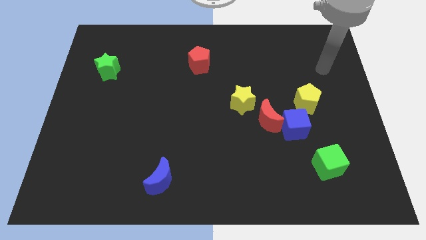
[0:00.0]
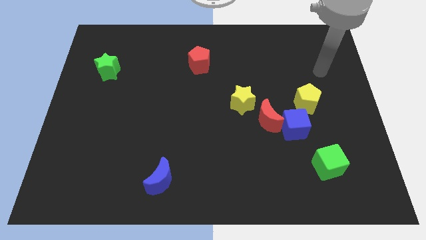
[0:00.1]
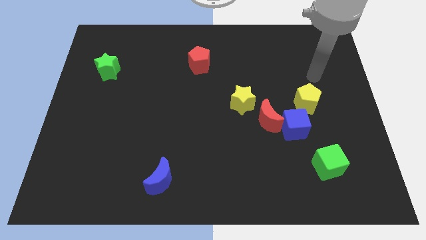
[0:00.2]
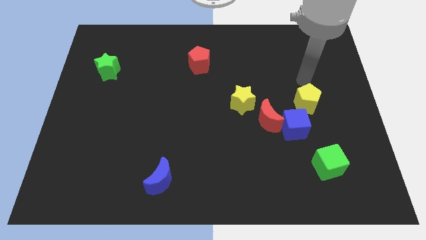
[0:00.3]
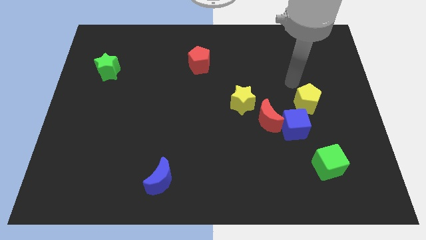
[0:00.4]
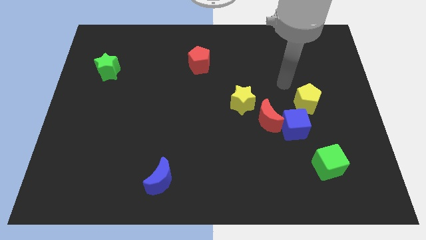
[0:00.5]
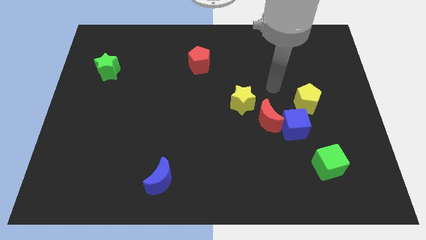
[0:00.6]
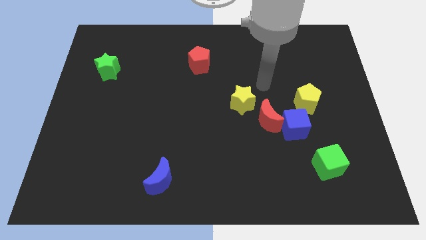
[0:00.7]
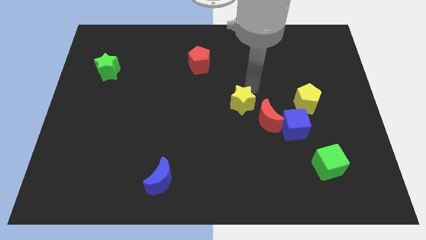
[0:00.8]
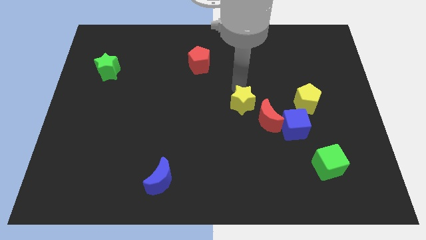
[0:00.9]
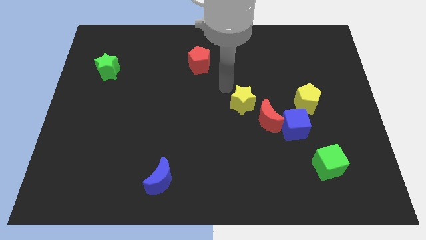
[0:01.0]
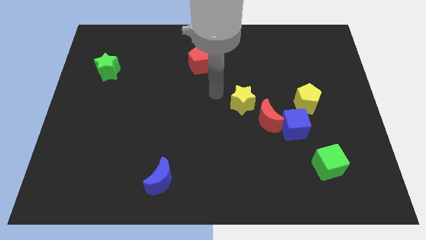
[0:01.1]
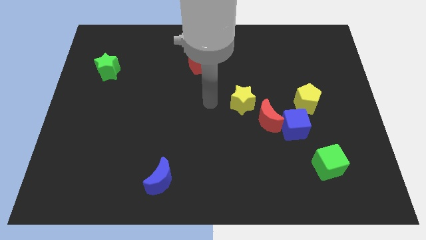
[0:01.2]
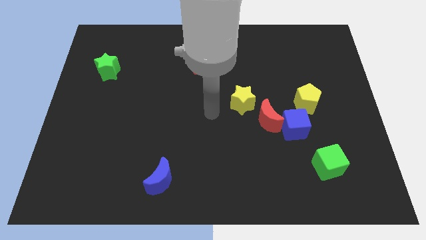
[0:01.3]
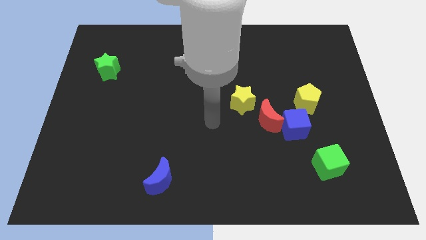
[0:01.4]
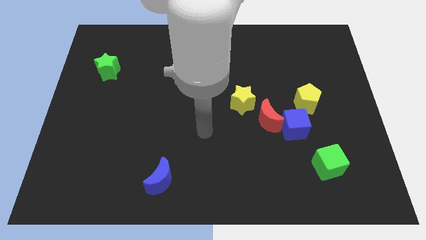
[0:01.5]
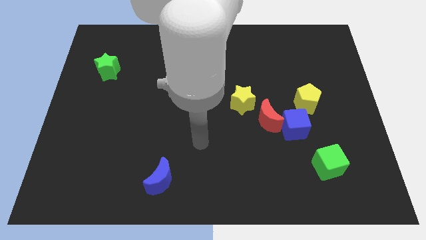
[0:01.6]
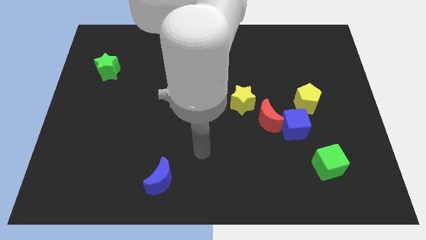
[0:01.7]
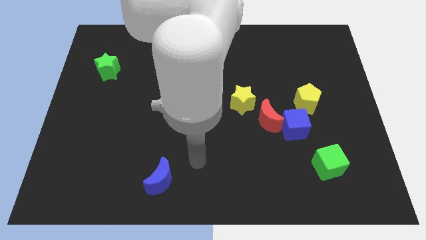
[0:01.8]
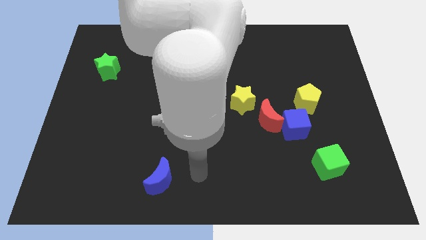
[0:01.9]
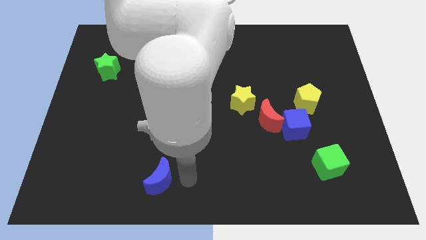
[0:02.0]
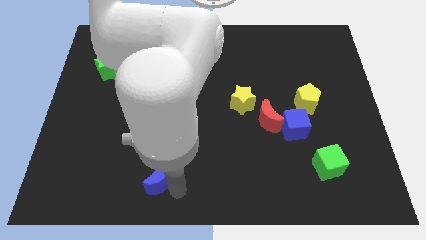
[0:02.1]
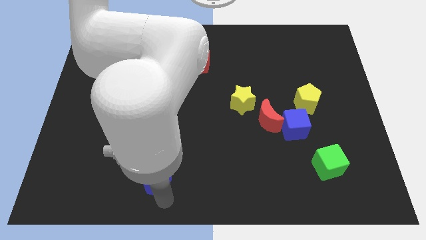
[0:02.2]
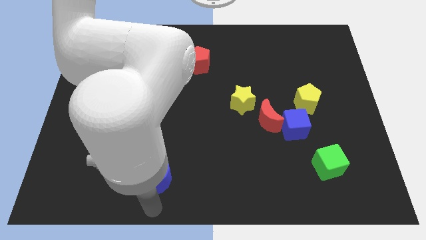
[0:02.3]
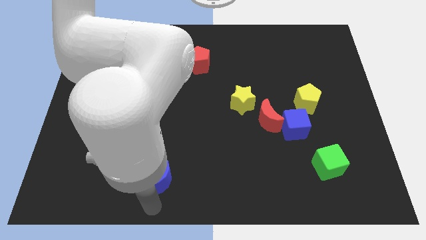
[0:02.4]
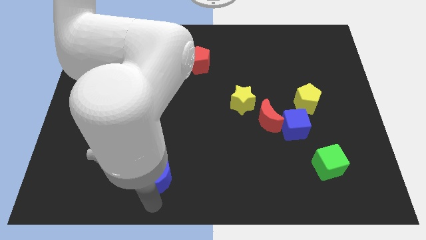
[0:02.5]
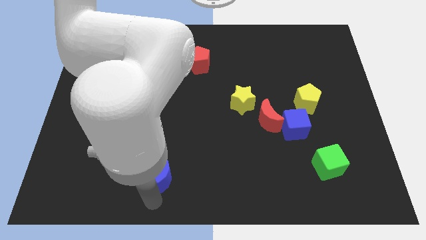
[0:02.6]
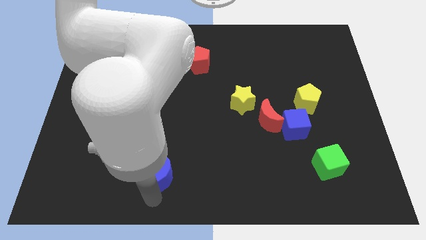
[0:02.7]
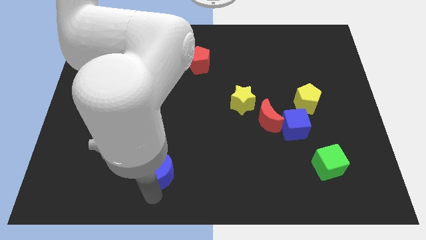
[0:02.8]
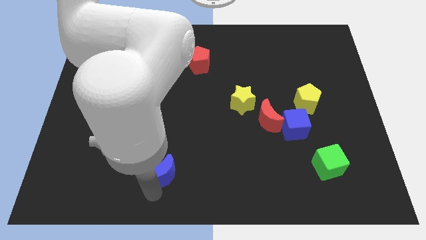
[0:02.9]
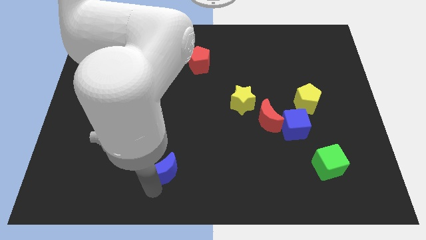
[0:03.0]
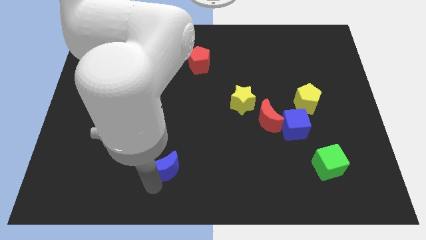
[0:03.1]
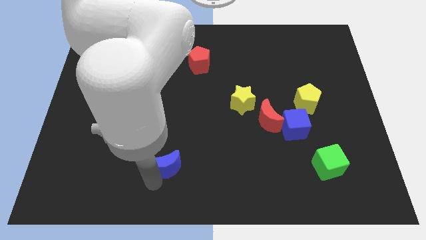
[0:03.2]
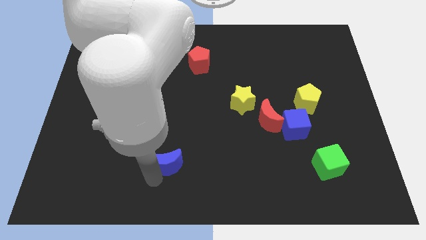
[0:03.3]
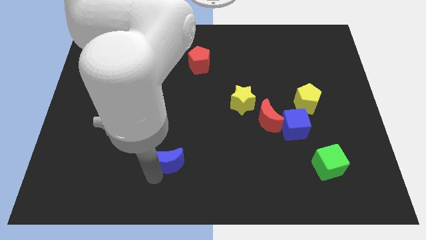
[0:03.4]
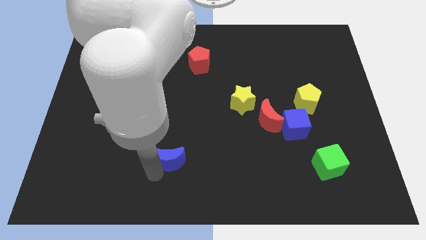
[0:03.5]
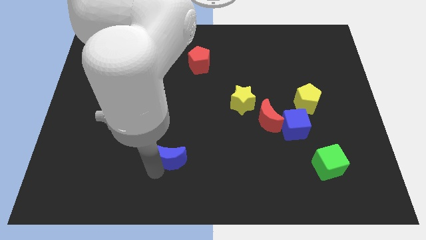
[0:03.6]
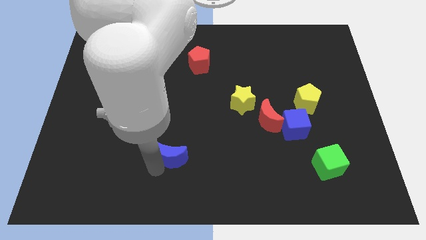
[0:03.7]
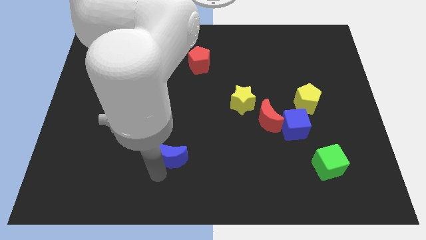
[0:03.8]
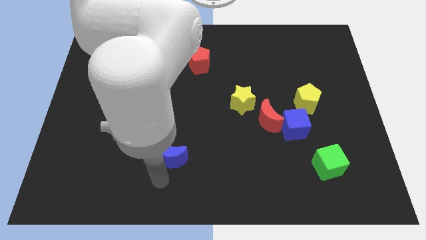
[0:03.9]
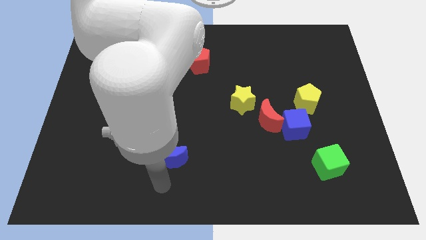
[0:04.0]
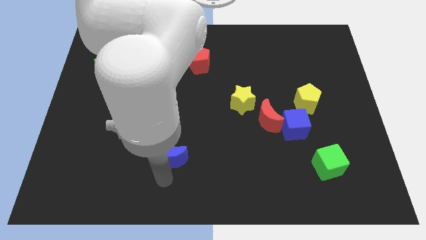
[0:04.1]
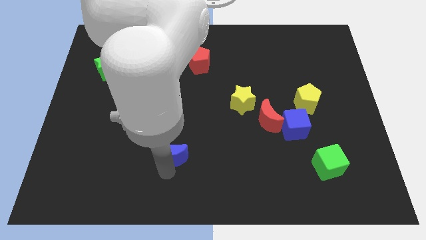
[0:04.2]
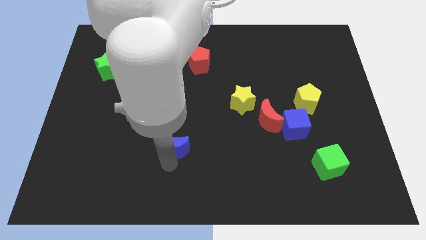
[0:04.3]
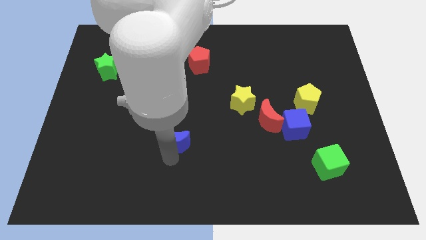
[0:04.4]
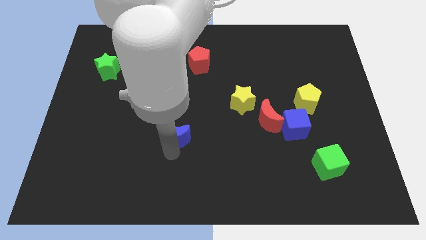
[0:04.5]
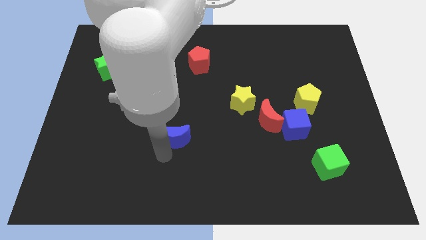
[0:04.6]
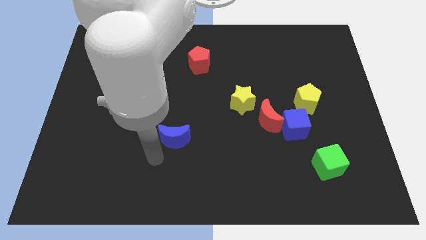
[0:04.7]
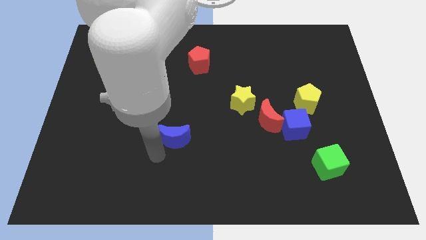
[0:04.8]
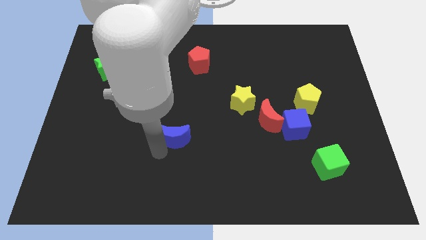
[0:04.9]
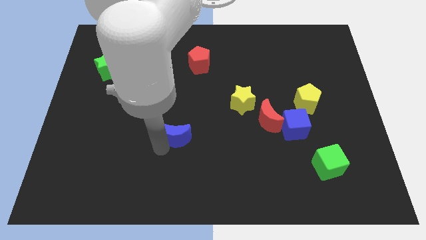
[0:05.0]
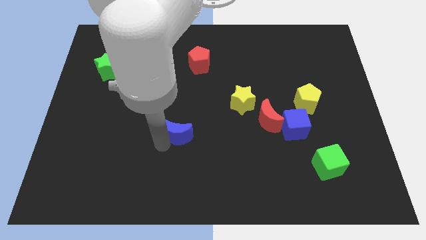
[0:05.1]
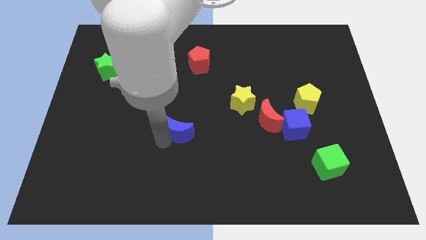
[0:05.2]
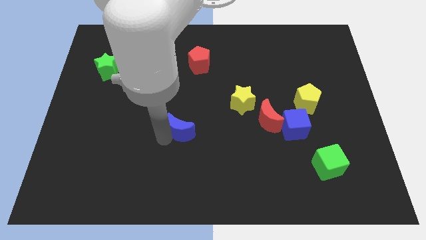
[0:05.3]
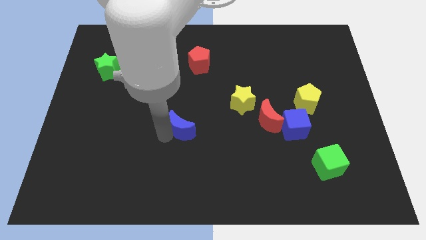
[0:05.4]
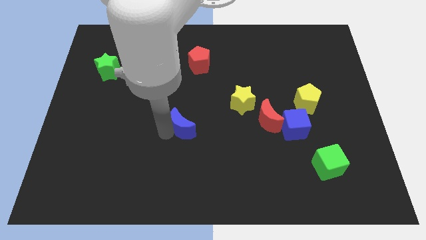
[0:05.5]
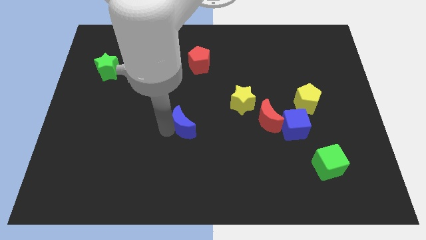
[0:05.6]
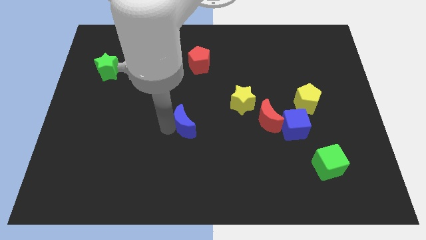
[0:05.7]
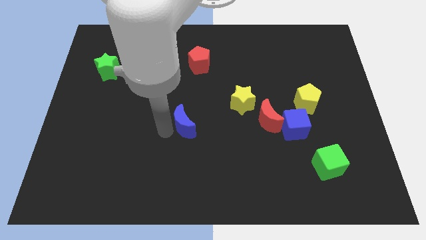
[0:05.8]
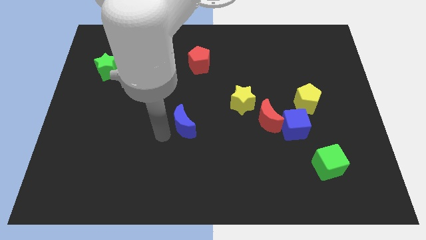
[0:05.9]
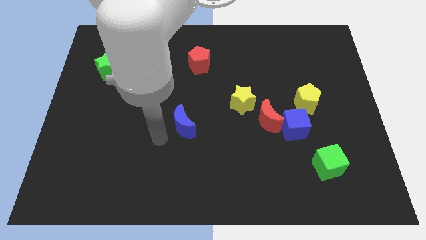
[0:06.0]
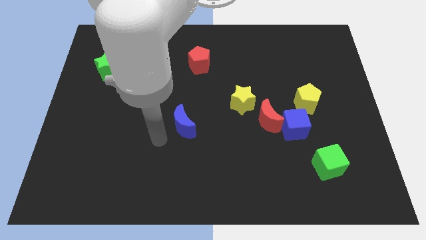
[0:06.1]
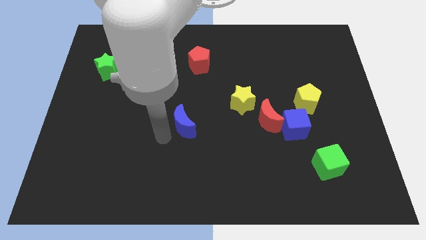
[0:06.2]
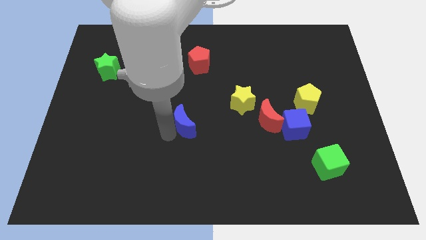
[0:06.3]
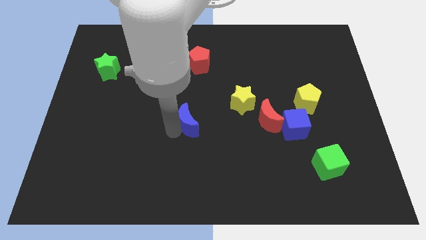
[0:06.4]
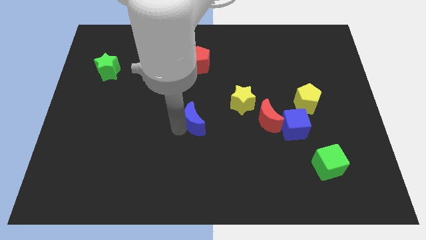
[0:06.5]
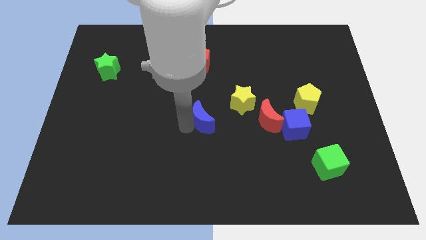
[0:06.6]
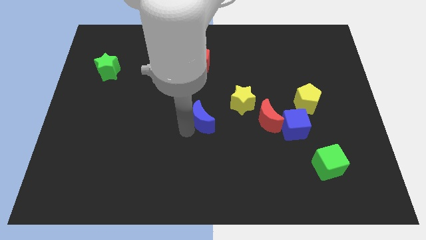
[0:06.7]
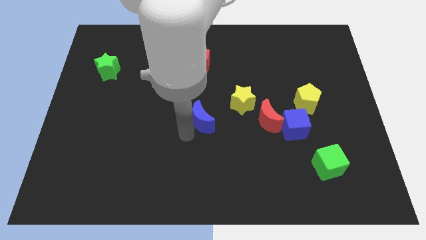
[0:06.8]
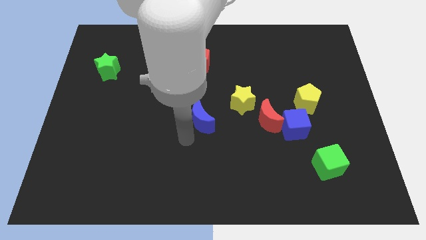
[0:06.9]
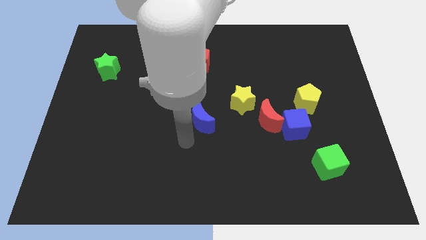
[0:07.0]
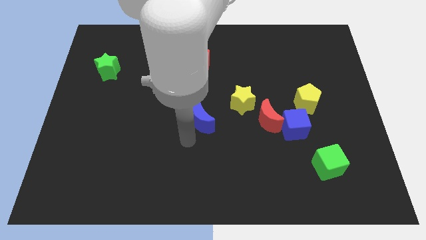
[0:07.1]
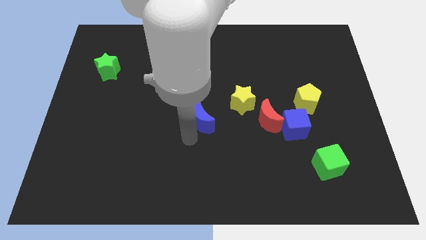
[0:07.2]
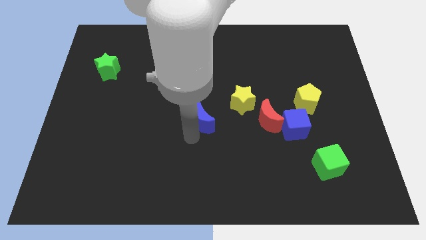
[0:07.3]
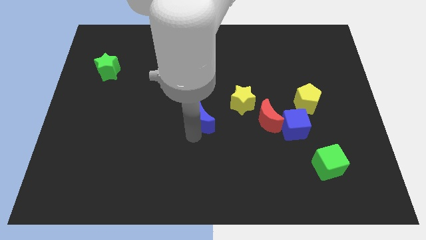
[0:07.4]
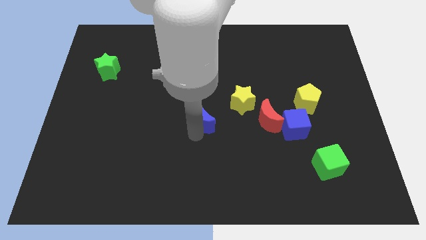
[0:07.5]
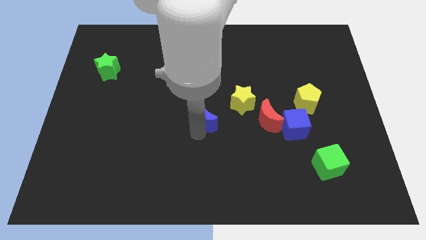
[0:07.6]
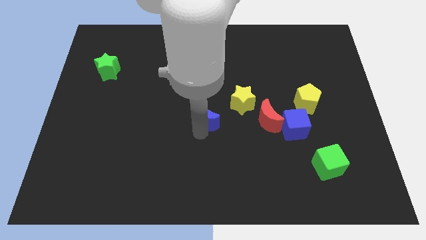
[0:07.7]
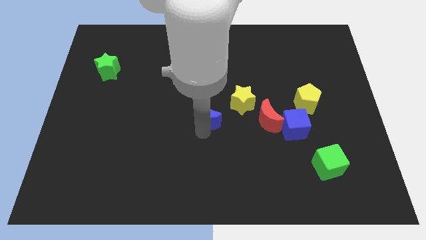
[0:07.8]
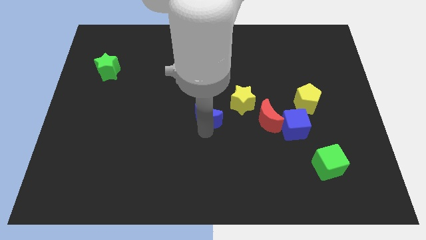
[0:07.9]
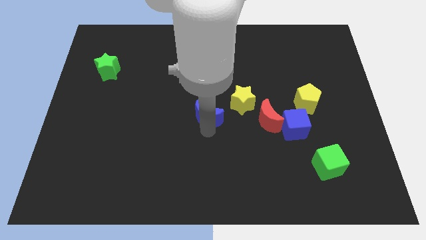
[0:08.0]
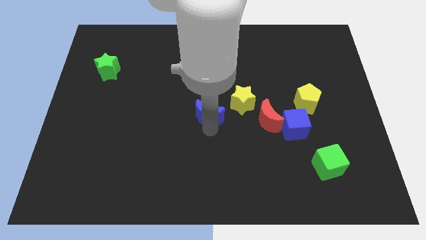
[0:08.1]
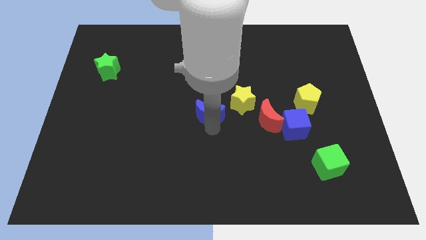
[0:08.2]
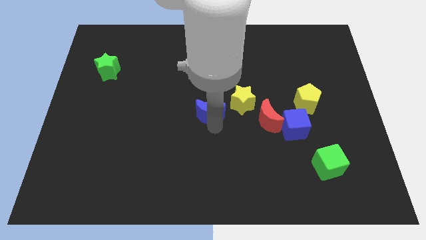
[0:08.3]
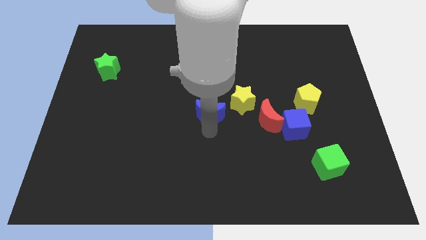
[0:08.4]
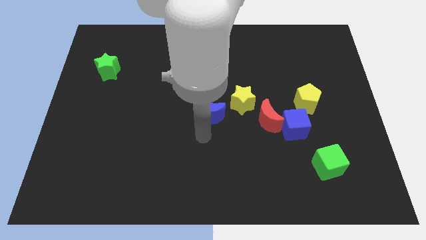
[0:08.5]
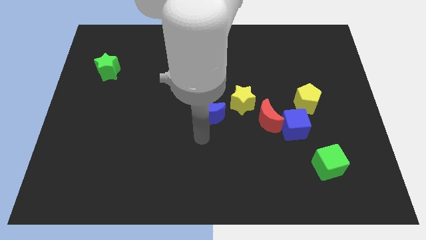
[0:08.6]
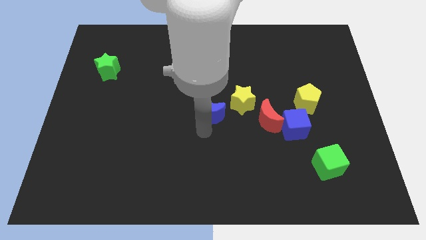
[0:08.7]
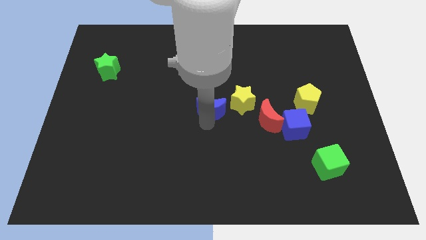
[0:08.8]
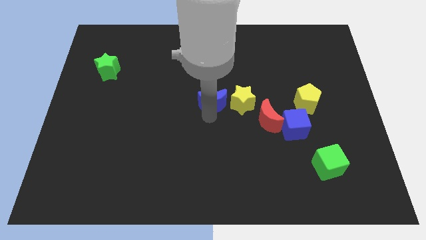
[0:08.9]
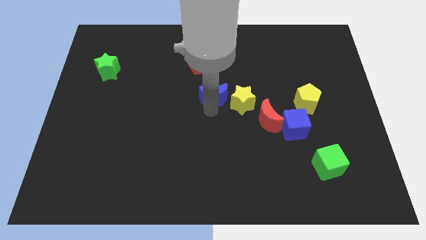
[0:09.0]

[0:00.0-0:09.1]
move the blue moon diagonally up and to the left of the yellow star
